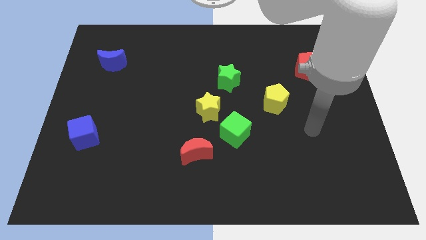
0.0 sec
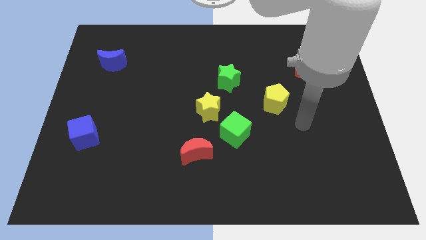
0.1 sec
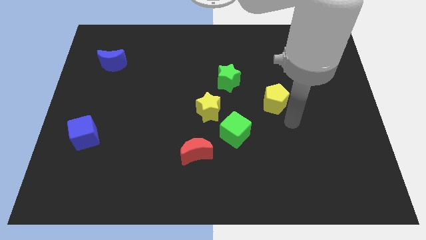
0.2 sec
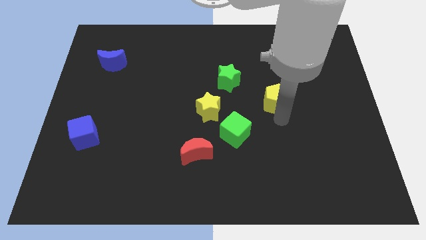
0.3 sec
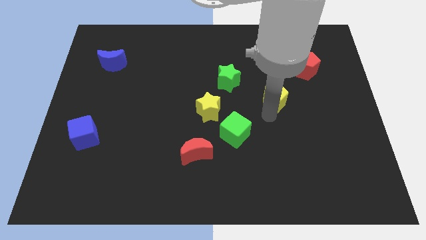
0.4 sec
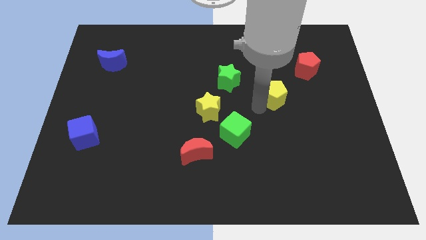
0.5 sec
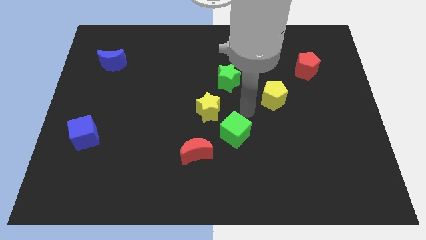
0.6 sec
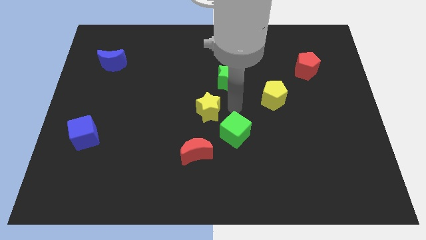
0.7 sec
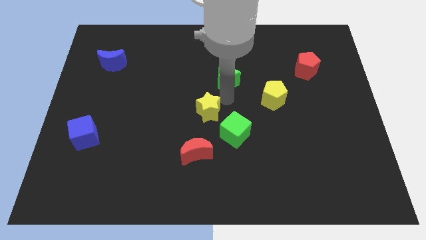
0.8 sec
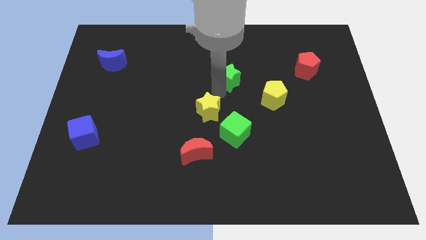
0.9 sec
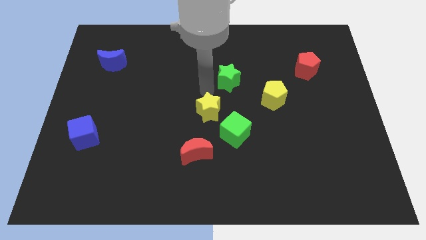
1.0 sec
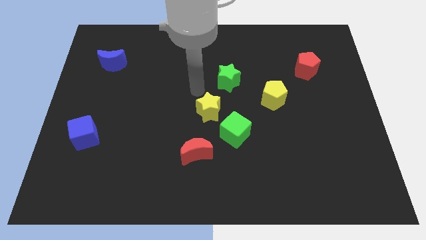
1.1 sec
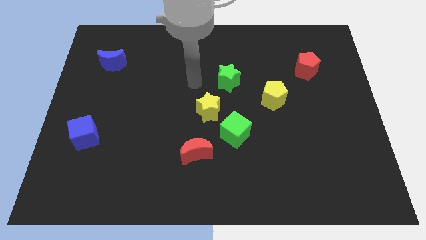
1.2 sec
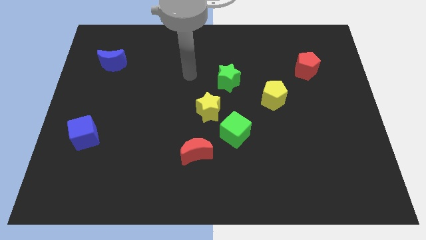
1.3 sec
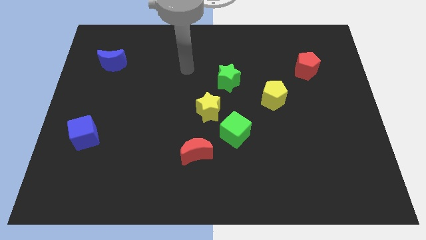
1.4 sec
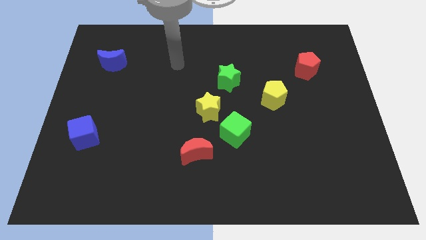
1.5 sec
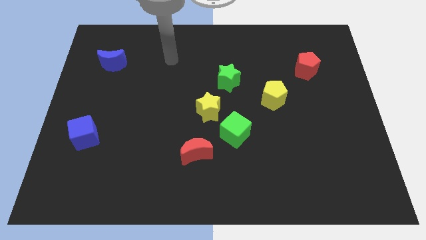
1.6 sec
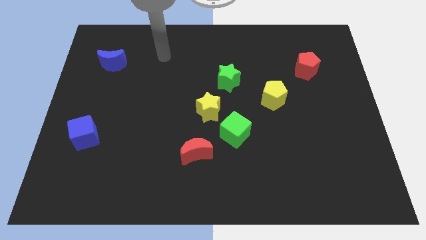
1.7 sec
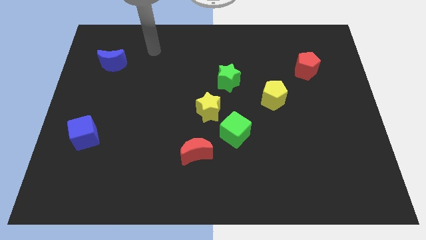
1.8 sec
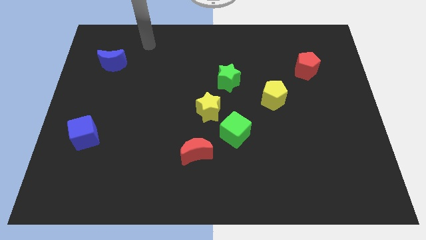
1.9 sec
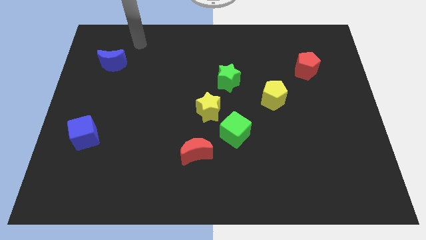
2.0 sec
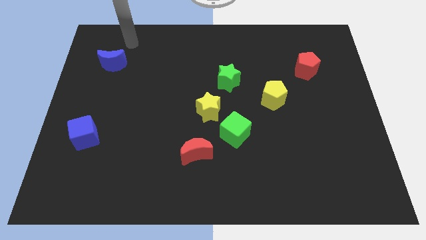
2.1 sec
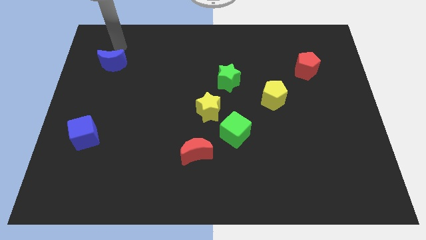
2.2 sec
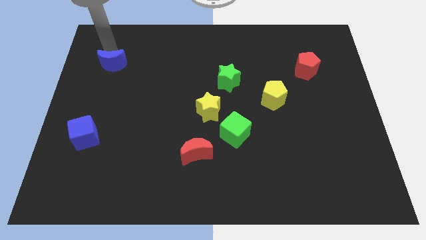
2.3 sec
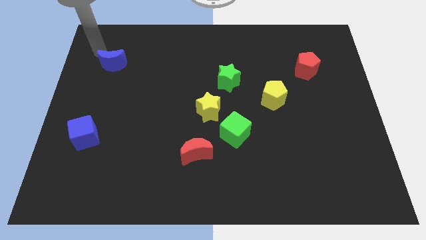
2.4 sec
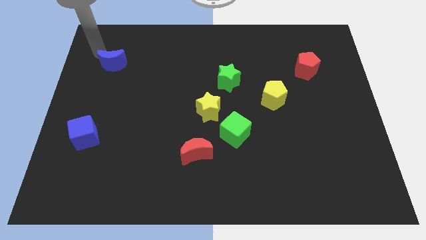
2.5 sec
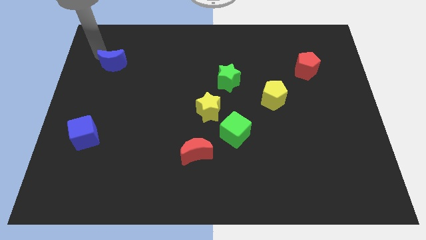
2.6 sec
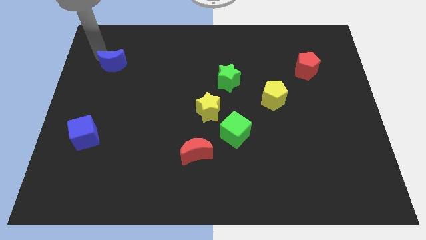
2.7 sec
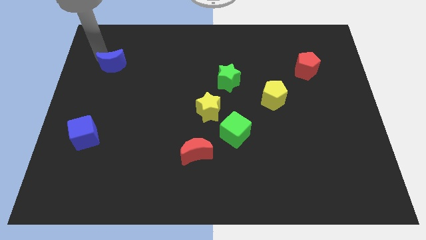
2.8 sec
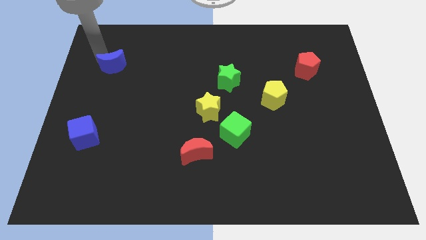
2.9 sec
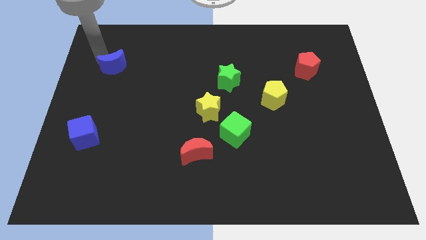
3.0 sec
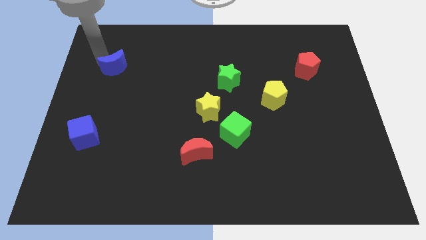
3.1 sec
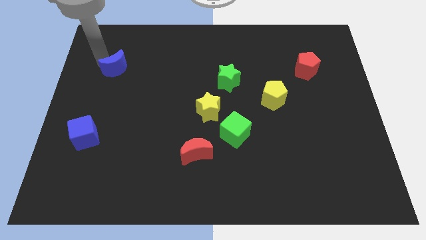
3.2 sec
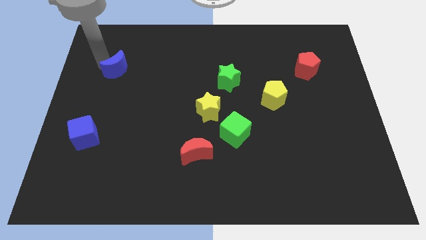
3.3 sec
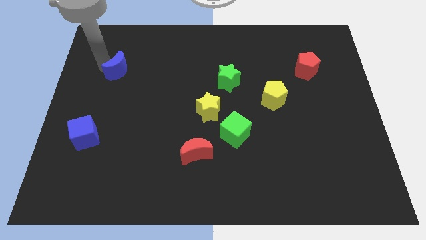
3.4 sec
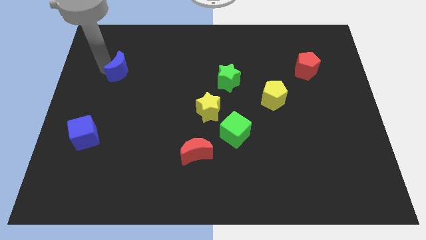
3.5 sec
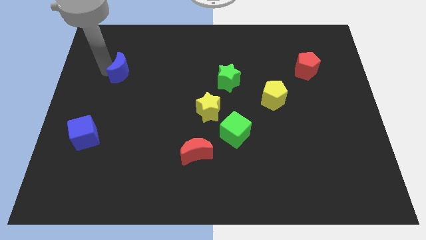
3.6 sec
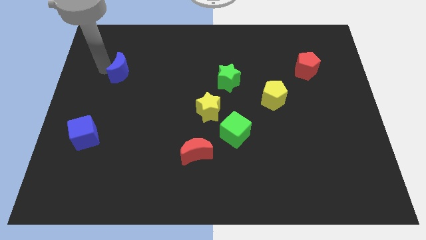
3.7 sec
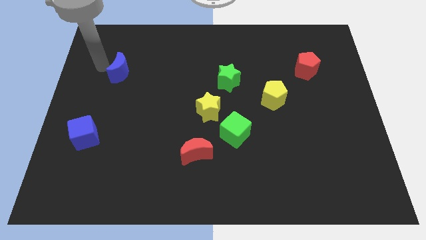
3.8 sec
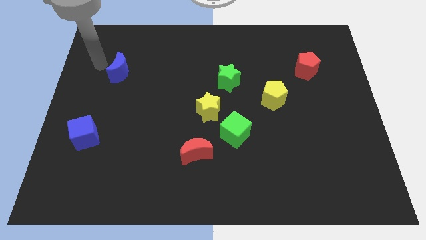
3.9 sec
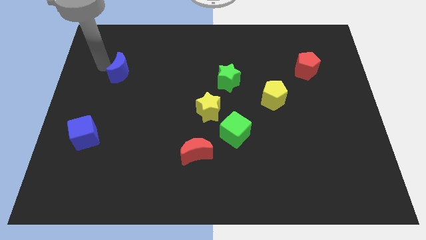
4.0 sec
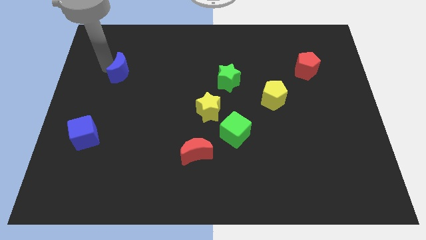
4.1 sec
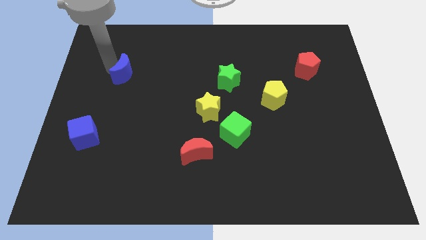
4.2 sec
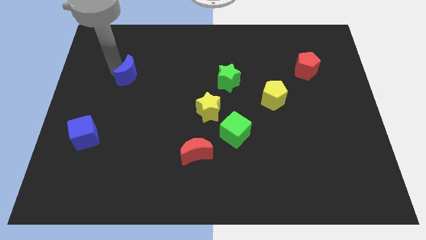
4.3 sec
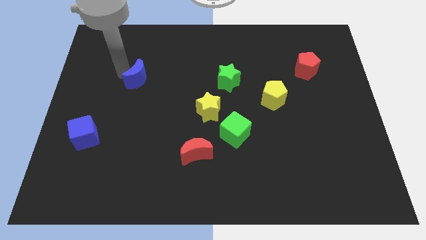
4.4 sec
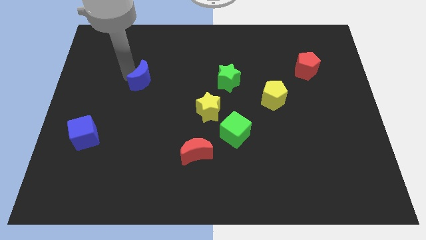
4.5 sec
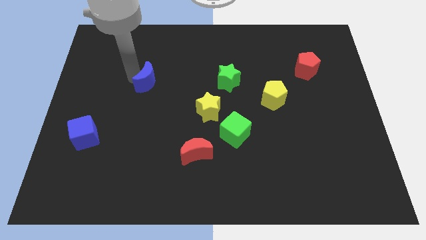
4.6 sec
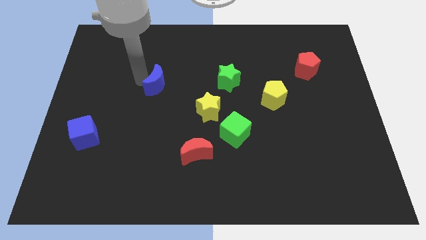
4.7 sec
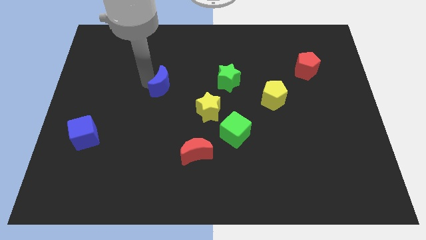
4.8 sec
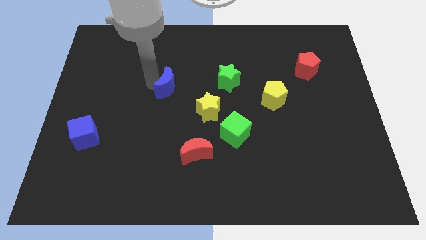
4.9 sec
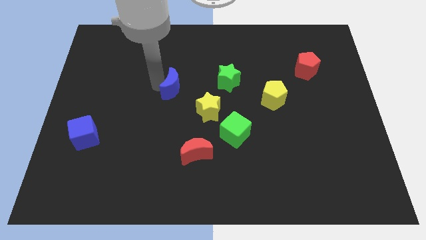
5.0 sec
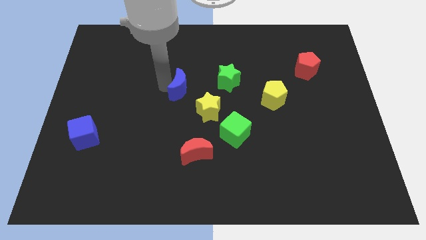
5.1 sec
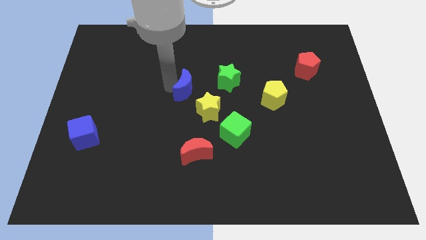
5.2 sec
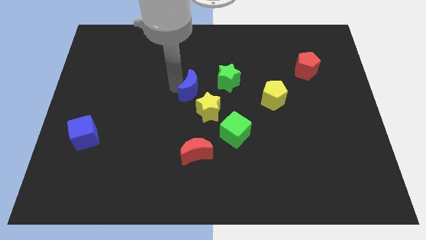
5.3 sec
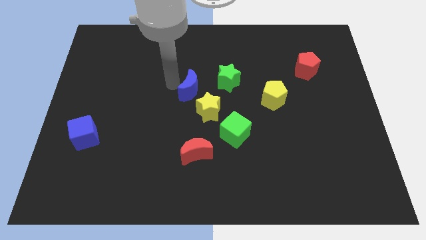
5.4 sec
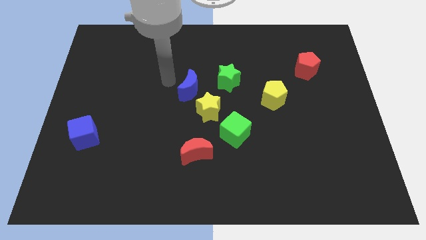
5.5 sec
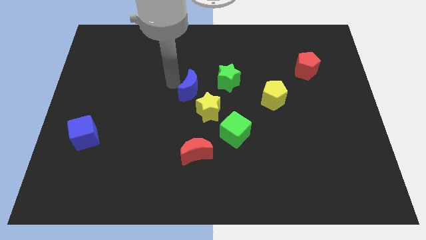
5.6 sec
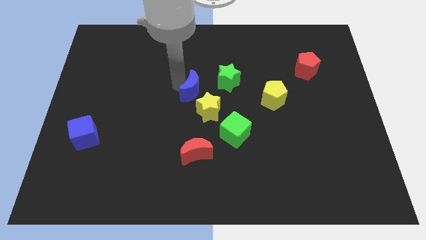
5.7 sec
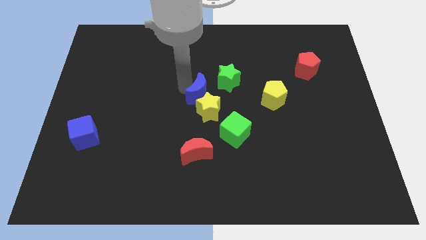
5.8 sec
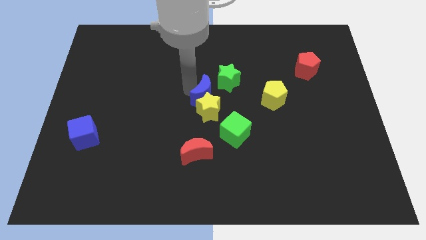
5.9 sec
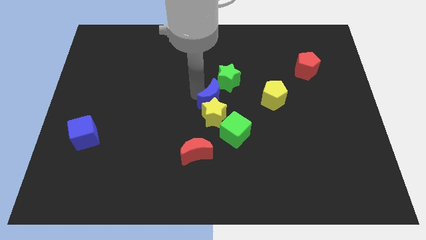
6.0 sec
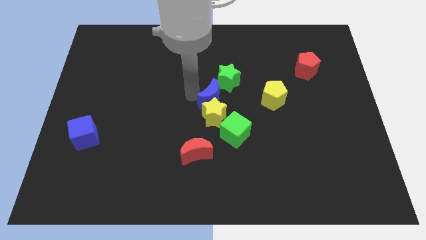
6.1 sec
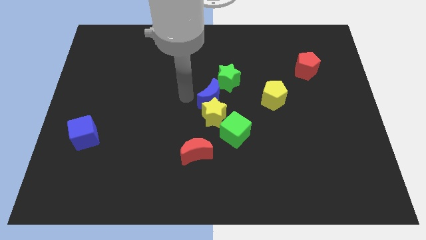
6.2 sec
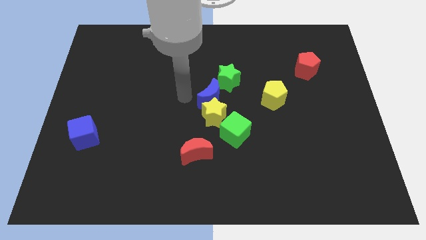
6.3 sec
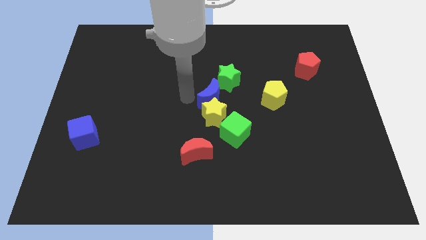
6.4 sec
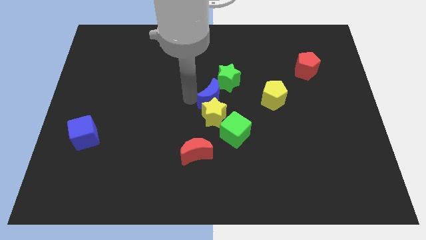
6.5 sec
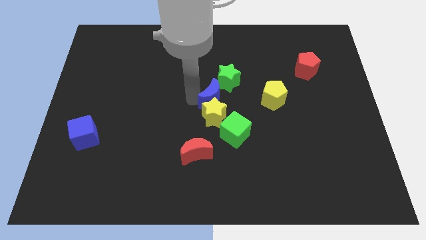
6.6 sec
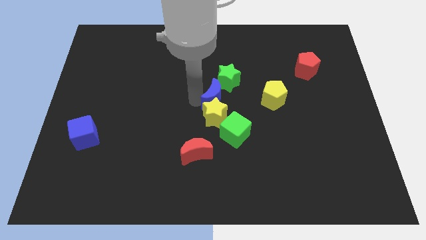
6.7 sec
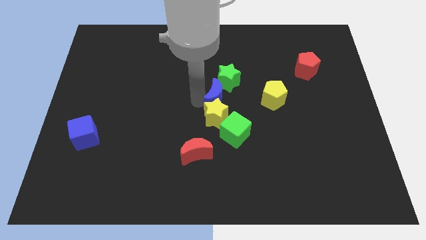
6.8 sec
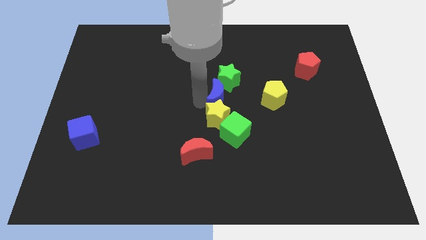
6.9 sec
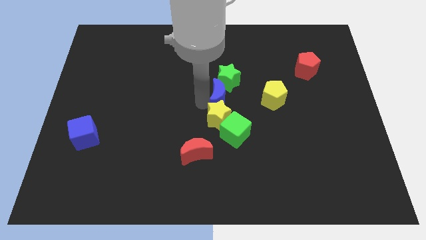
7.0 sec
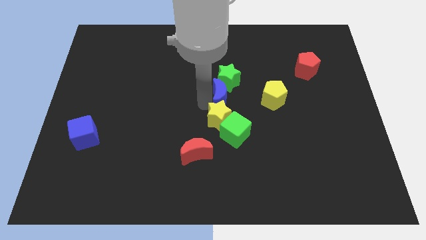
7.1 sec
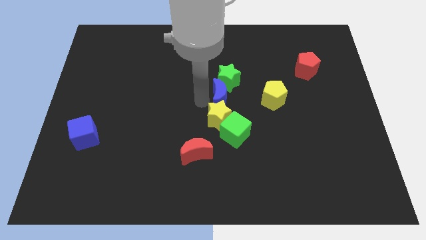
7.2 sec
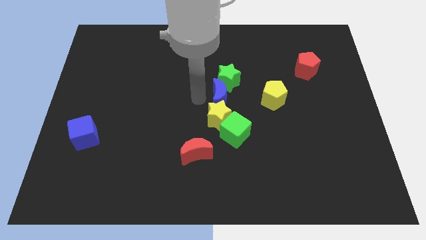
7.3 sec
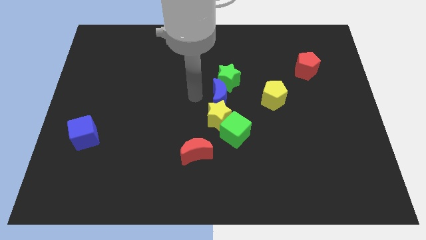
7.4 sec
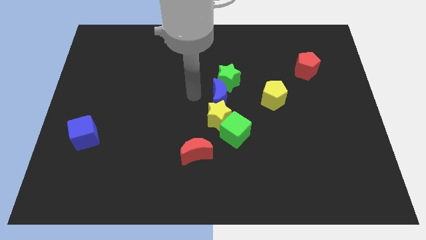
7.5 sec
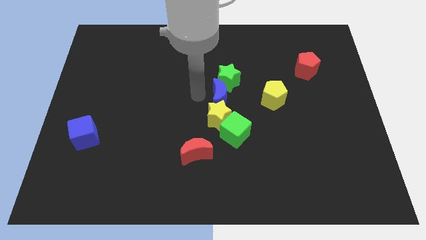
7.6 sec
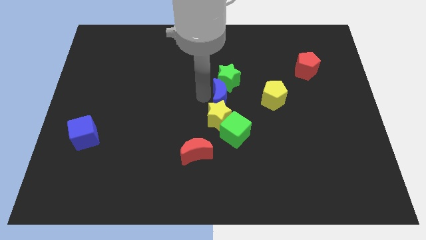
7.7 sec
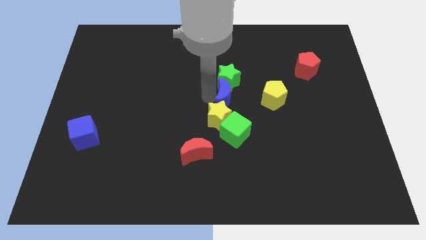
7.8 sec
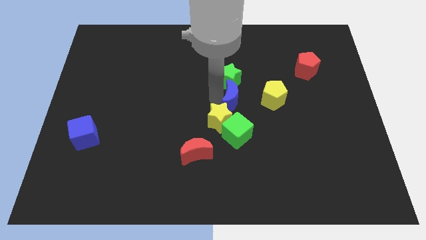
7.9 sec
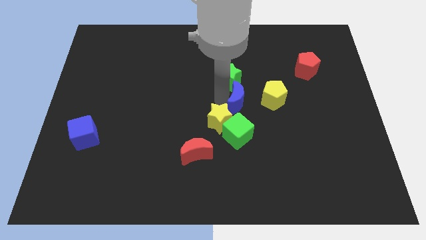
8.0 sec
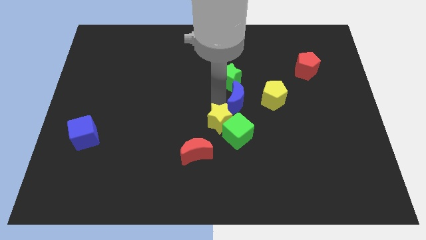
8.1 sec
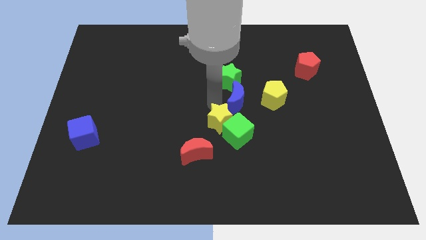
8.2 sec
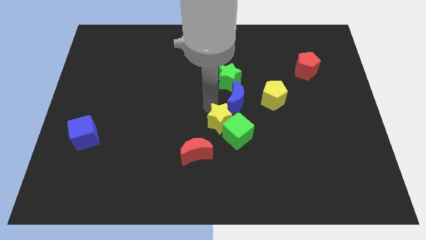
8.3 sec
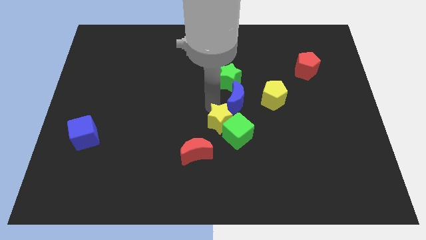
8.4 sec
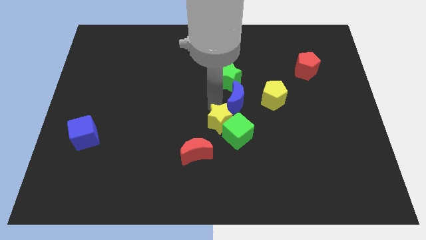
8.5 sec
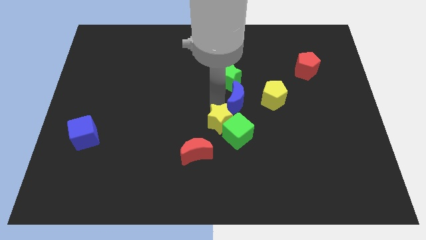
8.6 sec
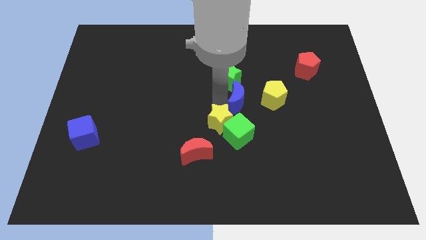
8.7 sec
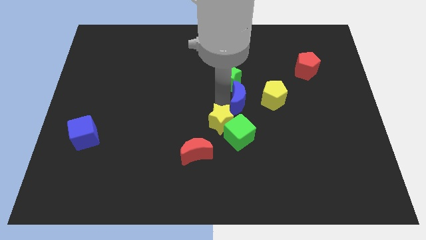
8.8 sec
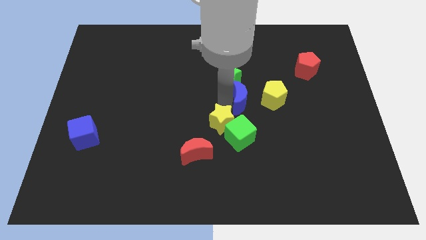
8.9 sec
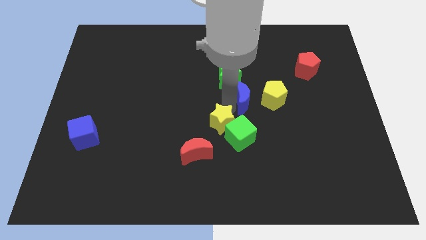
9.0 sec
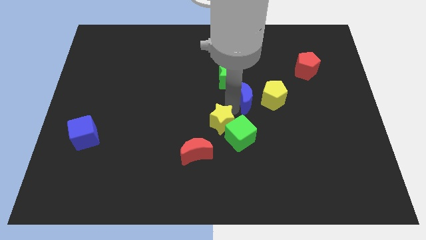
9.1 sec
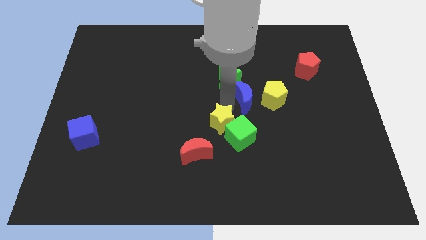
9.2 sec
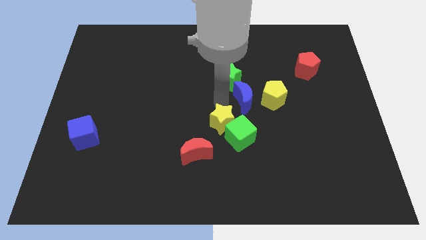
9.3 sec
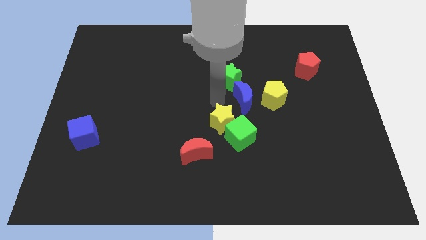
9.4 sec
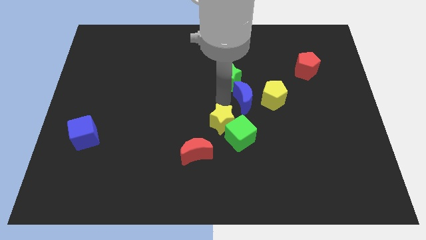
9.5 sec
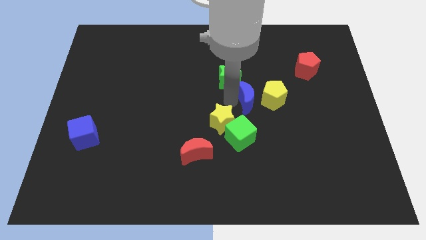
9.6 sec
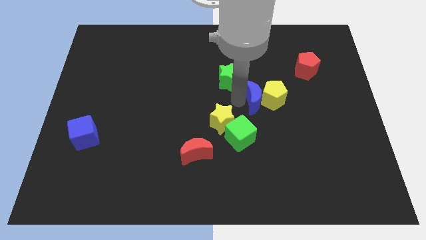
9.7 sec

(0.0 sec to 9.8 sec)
push the blue moon to the yellow pentagon
